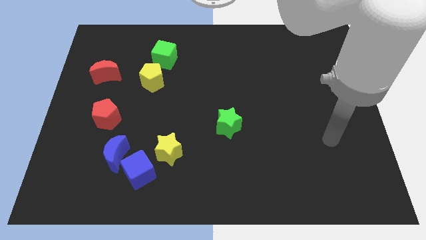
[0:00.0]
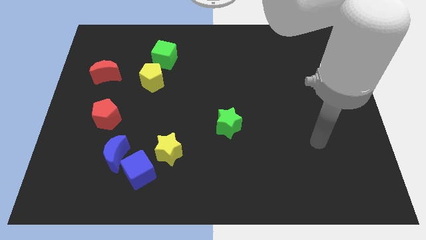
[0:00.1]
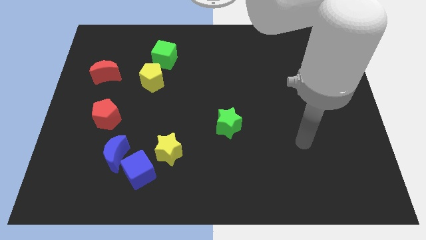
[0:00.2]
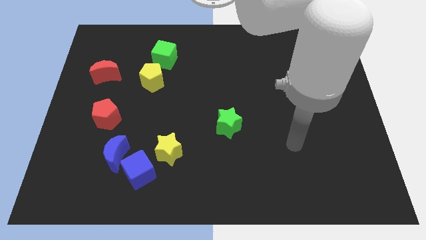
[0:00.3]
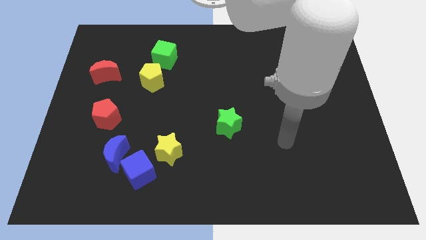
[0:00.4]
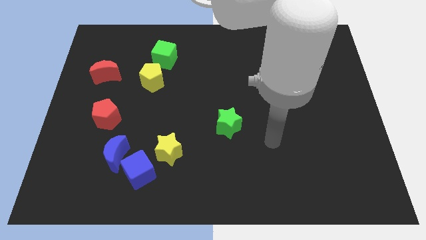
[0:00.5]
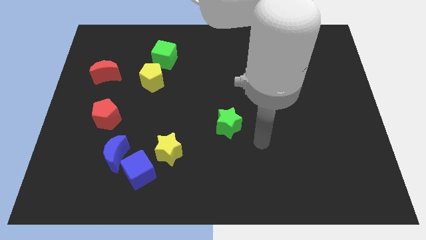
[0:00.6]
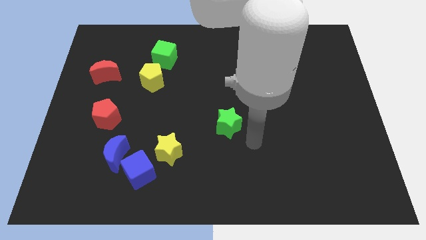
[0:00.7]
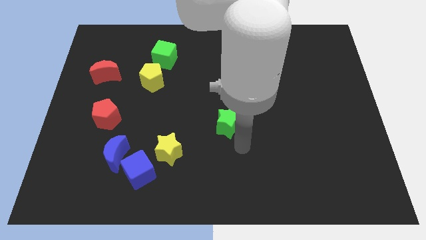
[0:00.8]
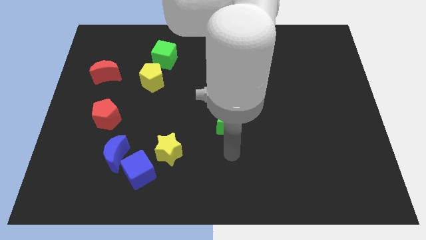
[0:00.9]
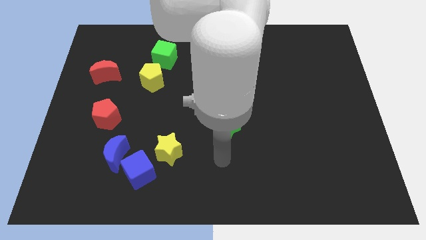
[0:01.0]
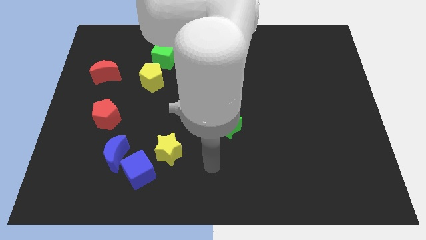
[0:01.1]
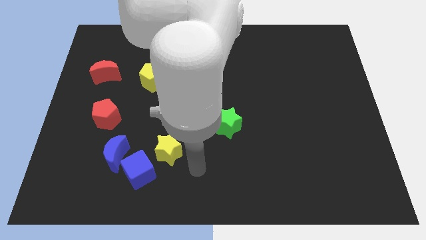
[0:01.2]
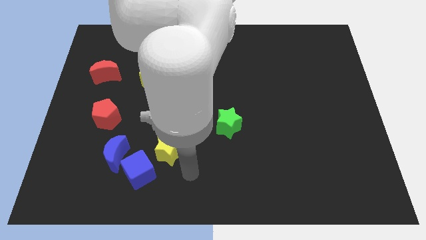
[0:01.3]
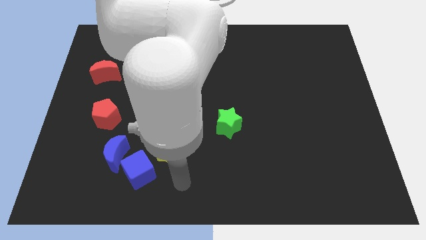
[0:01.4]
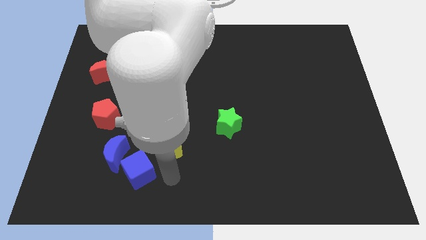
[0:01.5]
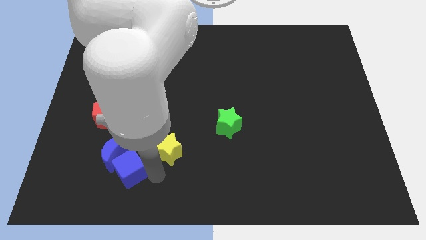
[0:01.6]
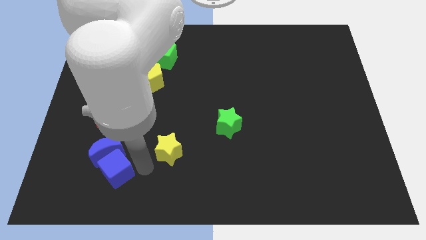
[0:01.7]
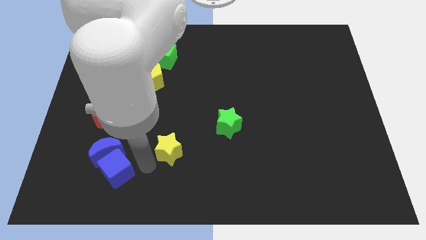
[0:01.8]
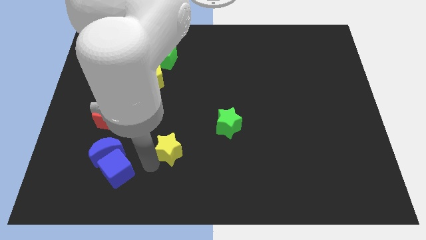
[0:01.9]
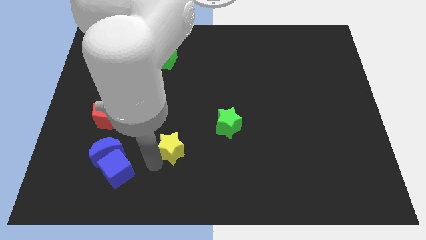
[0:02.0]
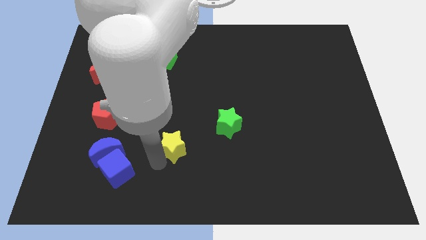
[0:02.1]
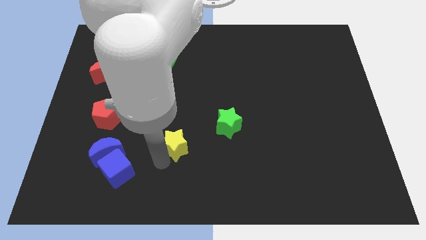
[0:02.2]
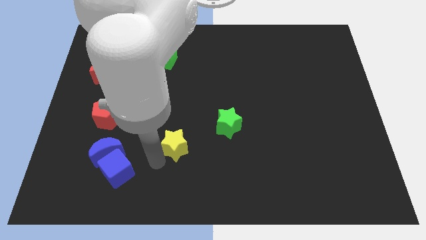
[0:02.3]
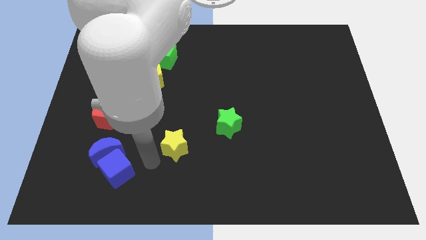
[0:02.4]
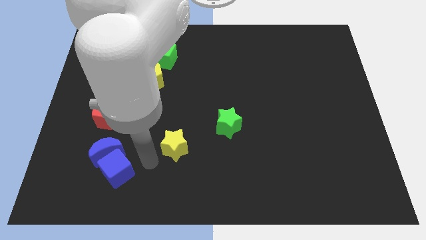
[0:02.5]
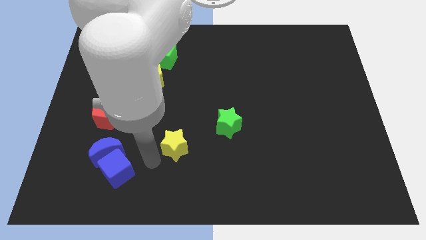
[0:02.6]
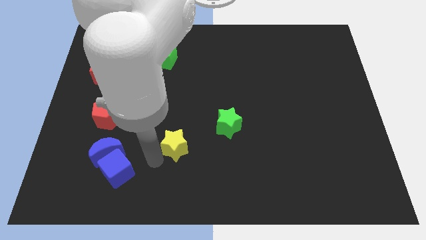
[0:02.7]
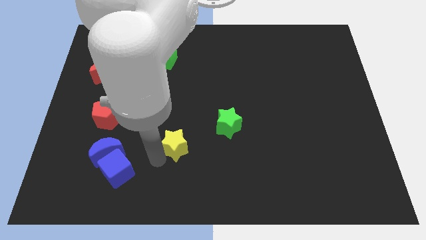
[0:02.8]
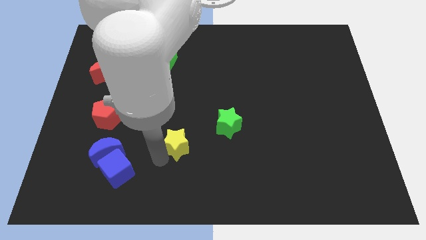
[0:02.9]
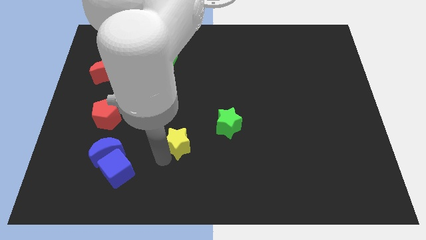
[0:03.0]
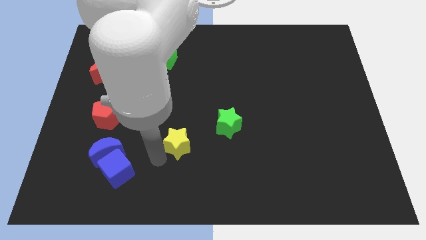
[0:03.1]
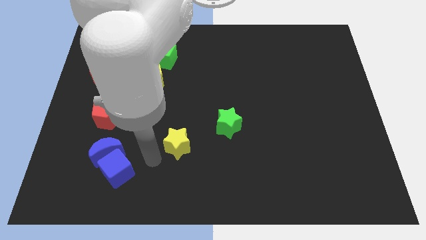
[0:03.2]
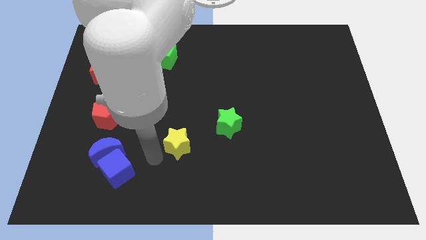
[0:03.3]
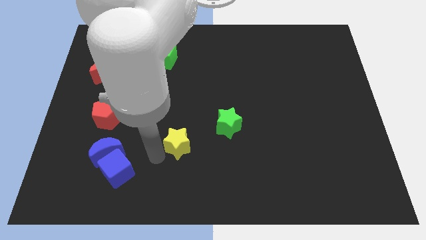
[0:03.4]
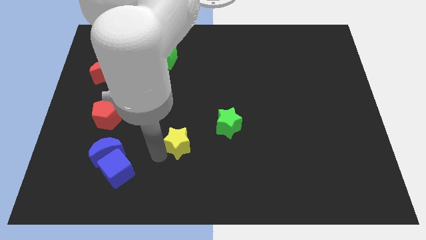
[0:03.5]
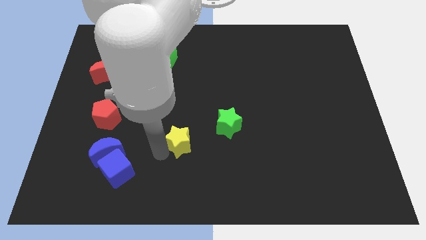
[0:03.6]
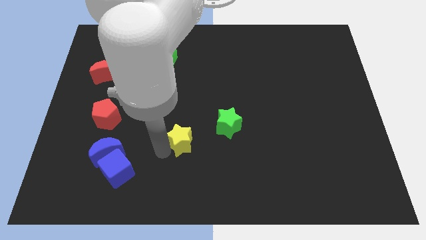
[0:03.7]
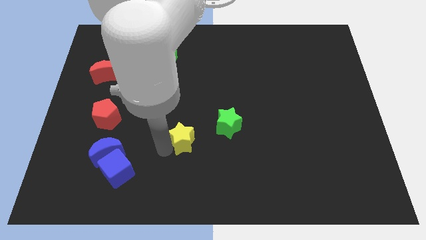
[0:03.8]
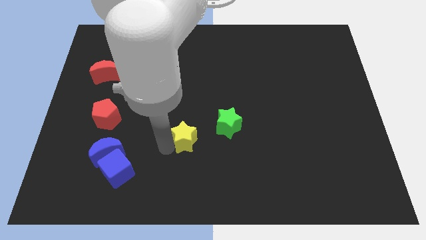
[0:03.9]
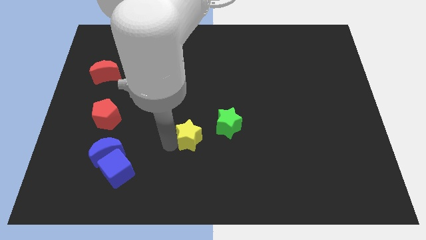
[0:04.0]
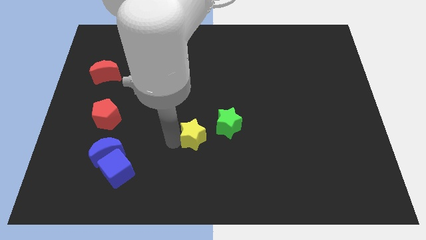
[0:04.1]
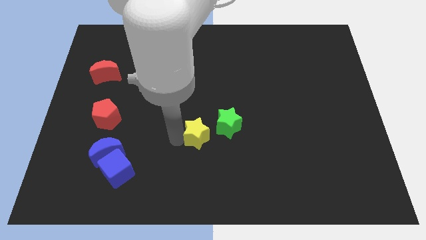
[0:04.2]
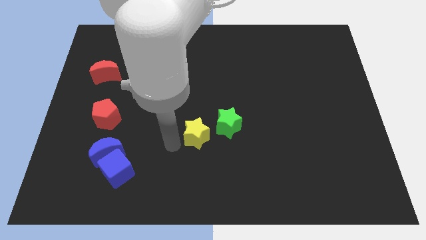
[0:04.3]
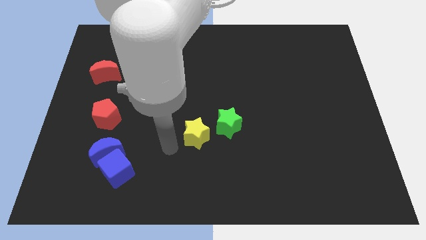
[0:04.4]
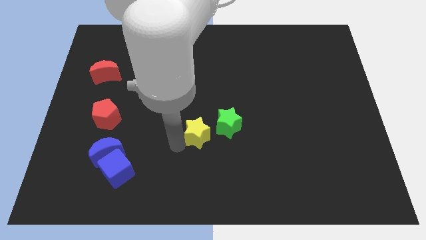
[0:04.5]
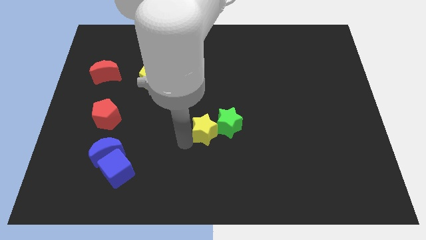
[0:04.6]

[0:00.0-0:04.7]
move the yellow star towards the green star

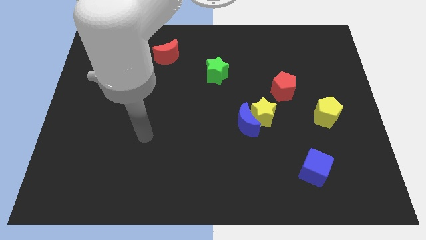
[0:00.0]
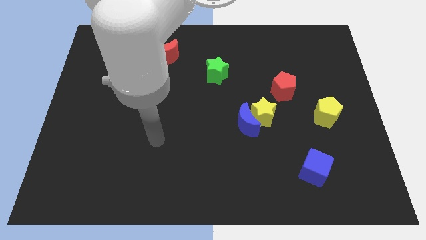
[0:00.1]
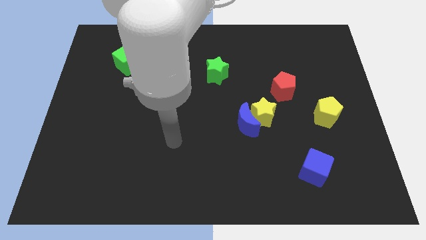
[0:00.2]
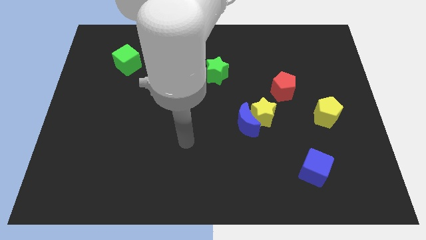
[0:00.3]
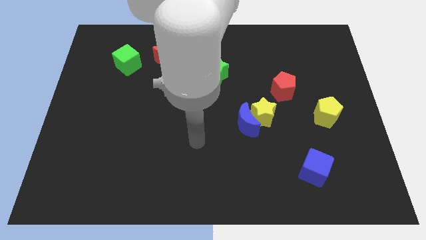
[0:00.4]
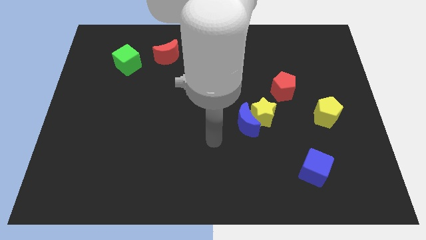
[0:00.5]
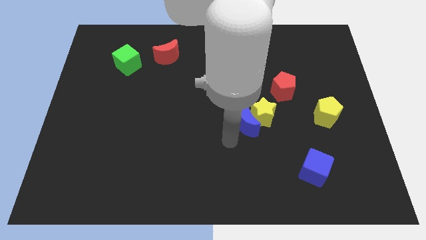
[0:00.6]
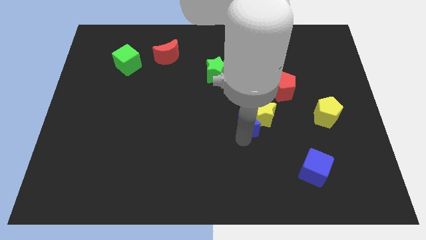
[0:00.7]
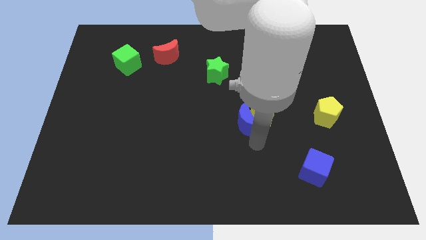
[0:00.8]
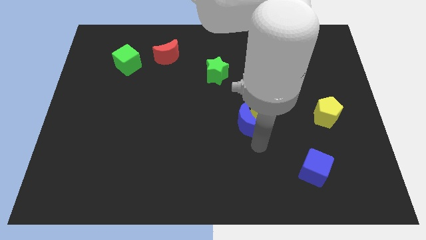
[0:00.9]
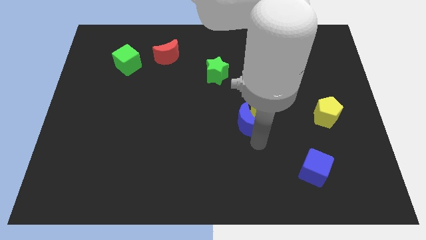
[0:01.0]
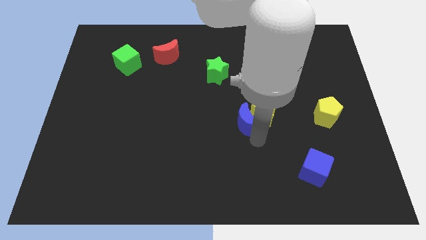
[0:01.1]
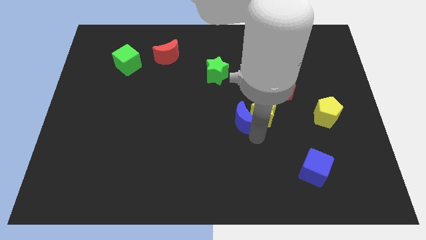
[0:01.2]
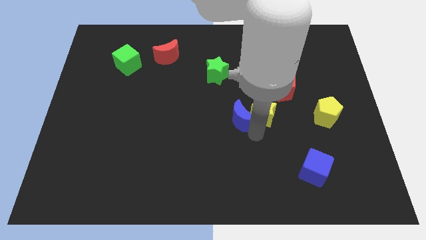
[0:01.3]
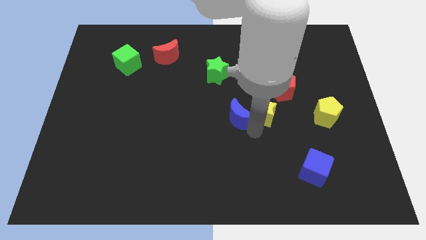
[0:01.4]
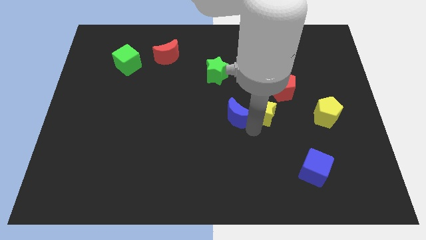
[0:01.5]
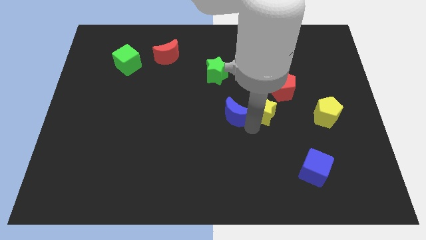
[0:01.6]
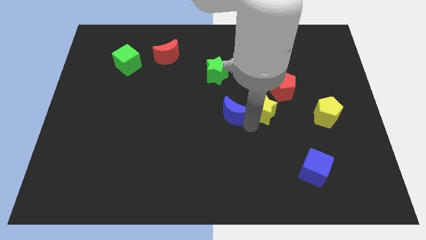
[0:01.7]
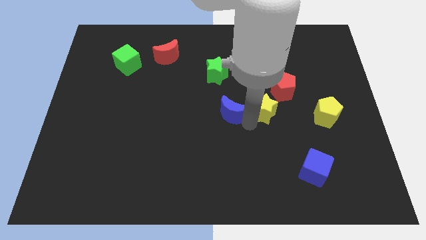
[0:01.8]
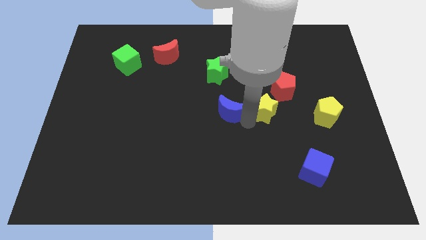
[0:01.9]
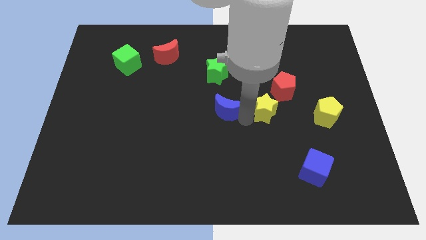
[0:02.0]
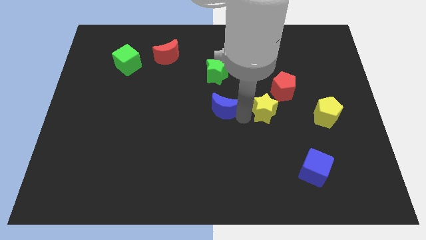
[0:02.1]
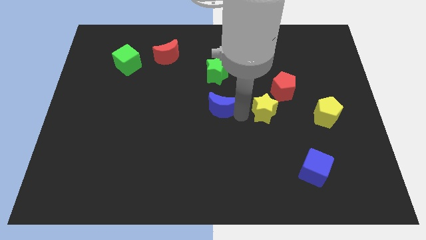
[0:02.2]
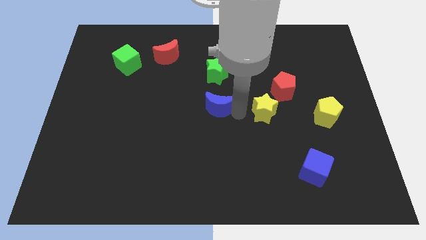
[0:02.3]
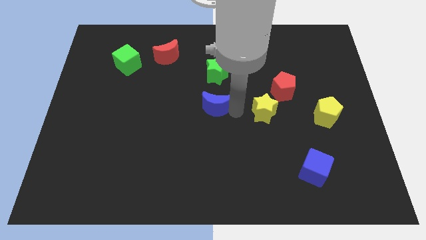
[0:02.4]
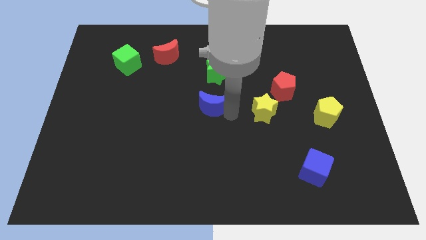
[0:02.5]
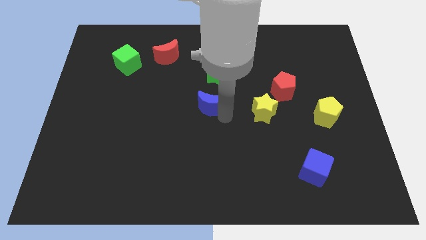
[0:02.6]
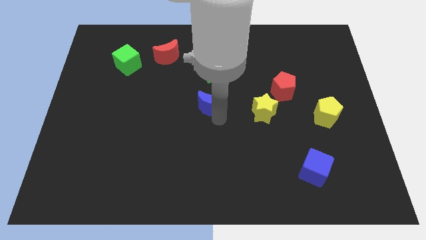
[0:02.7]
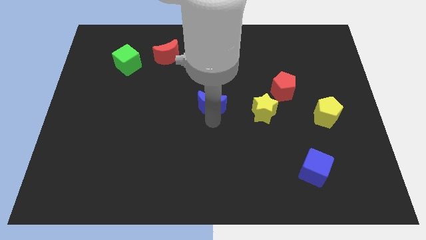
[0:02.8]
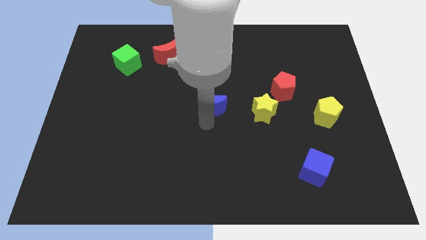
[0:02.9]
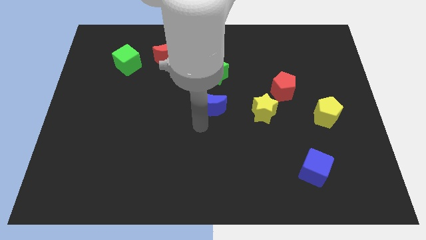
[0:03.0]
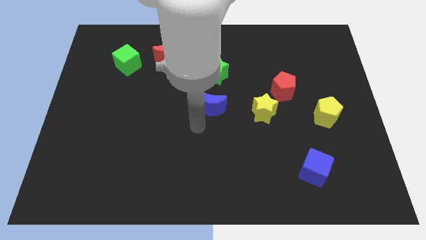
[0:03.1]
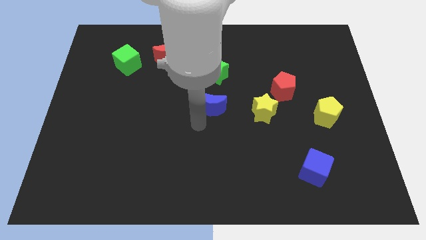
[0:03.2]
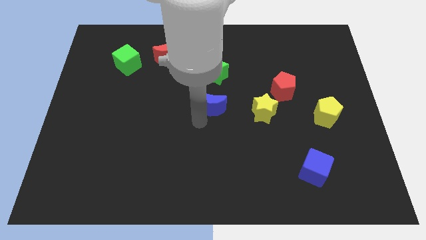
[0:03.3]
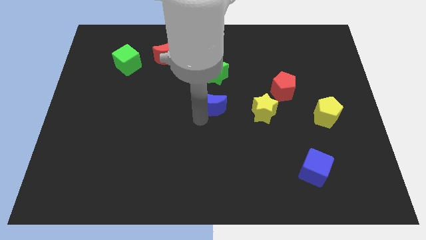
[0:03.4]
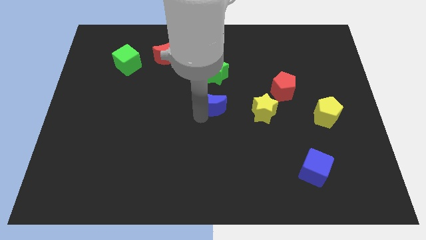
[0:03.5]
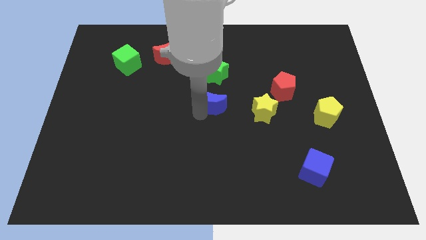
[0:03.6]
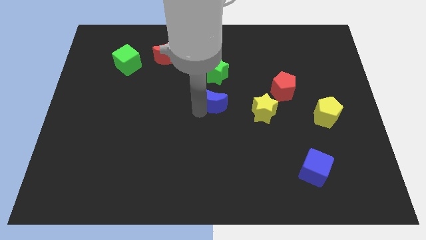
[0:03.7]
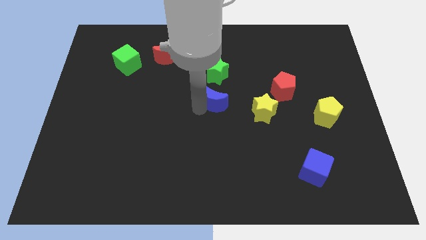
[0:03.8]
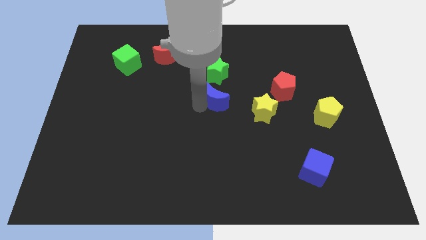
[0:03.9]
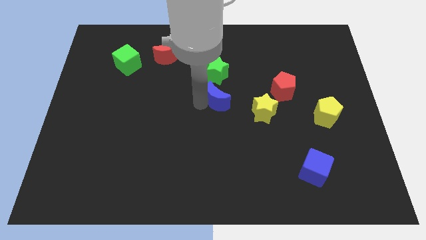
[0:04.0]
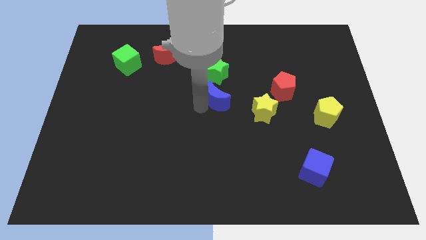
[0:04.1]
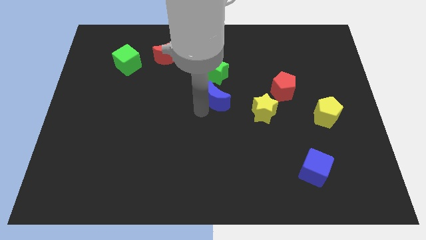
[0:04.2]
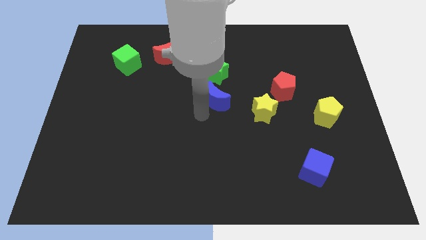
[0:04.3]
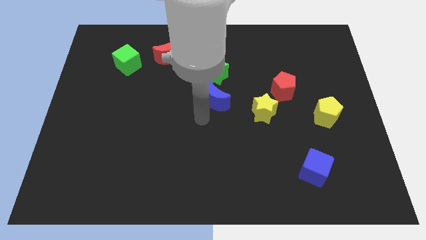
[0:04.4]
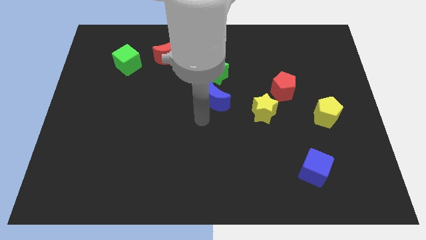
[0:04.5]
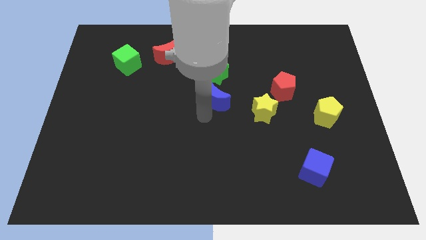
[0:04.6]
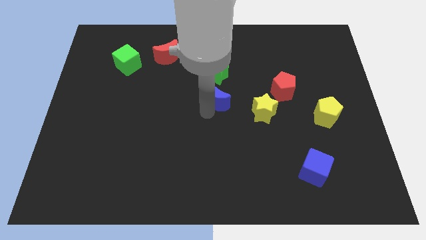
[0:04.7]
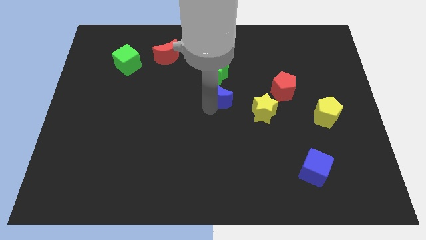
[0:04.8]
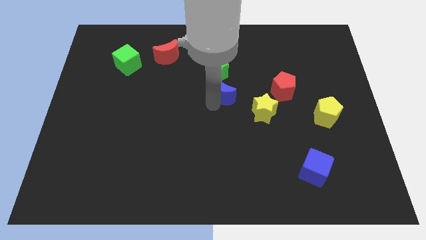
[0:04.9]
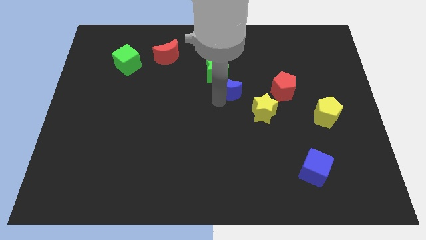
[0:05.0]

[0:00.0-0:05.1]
move the blue moon to the green star
